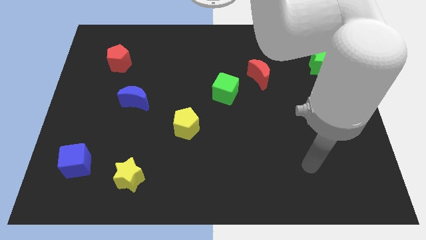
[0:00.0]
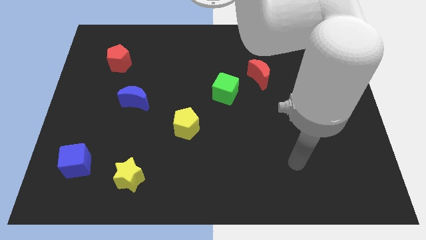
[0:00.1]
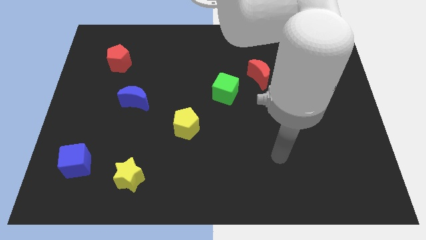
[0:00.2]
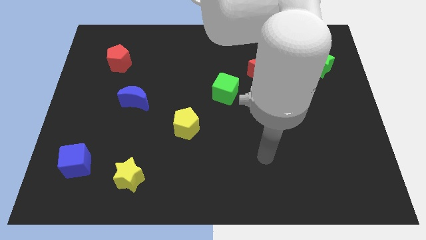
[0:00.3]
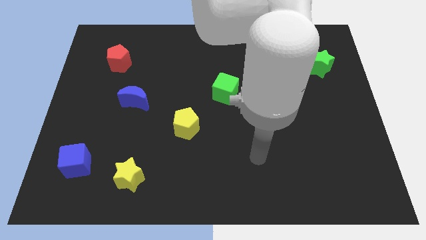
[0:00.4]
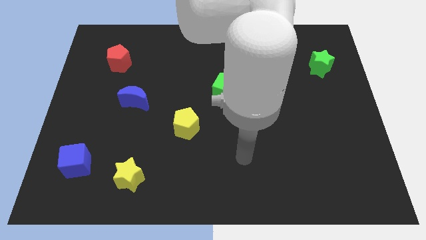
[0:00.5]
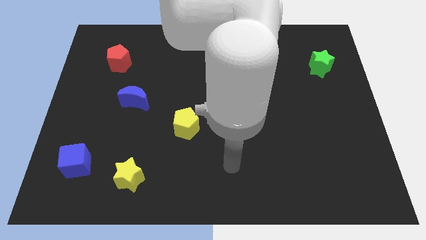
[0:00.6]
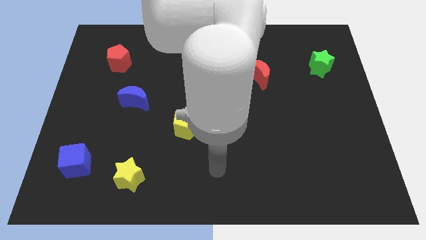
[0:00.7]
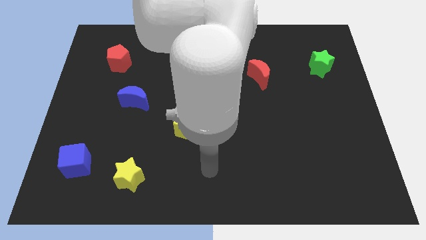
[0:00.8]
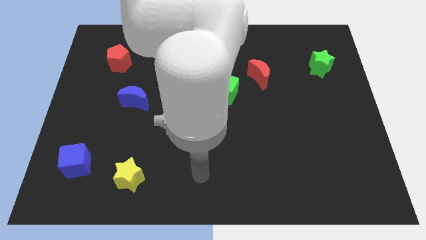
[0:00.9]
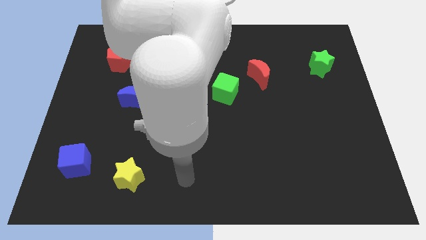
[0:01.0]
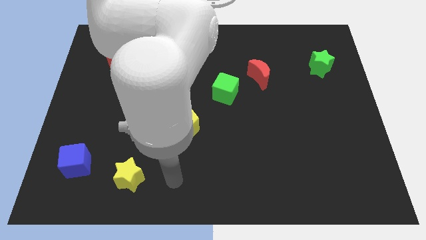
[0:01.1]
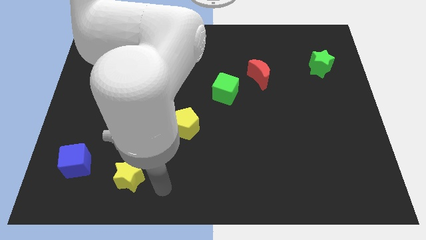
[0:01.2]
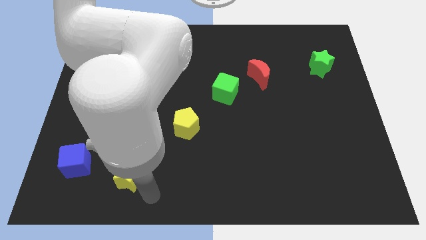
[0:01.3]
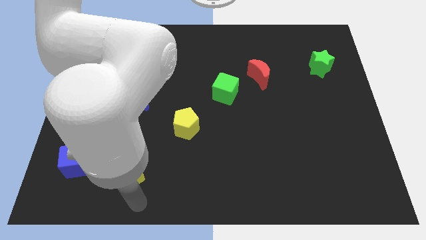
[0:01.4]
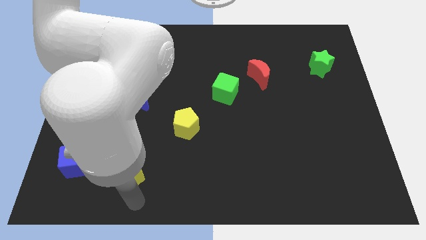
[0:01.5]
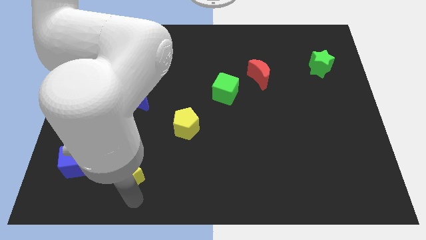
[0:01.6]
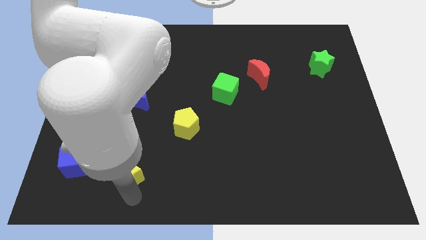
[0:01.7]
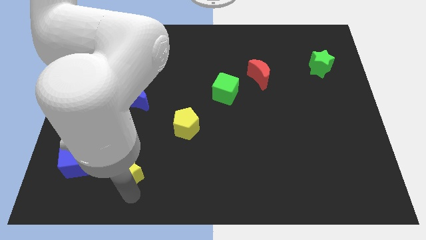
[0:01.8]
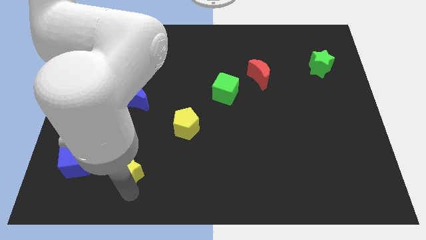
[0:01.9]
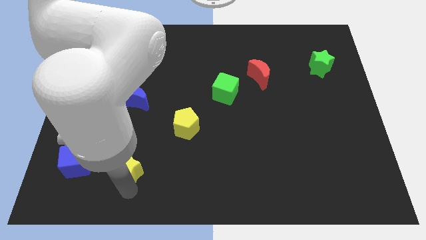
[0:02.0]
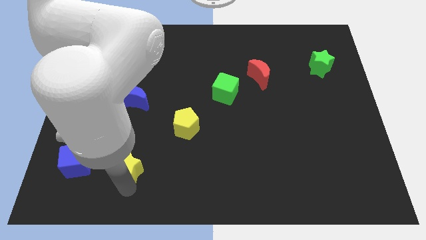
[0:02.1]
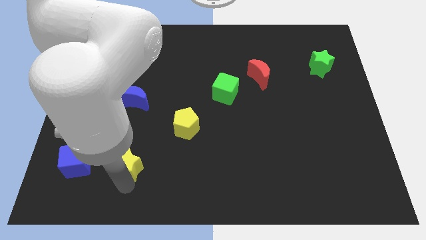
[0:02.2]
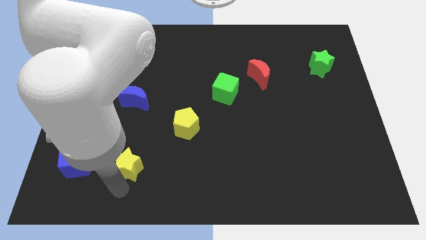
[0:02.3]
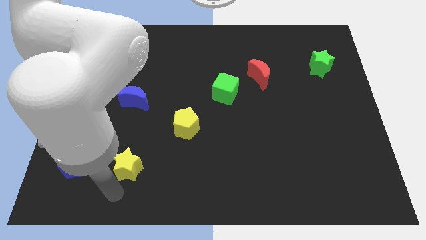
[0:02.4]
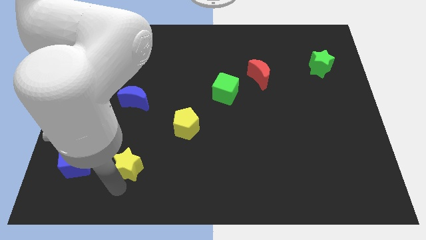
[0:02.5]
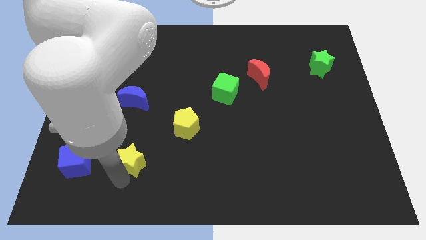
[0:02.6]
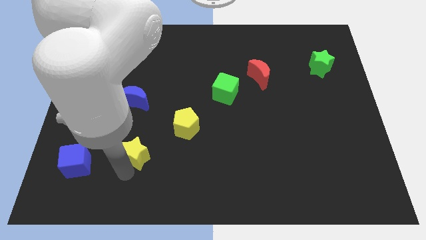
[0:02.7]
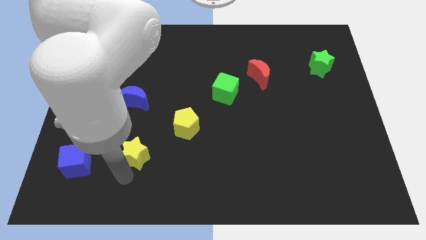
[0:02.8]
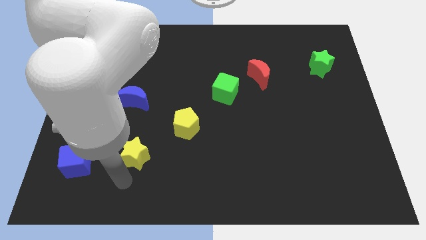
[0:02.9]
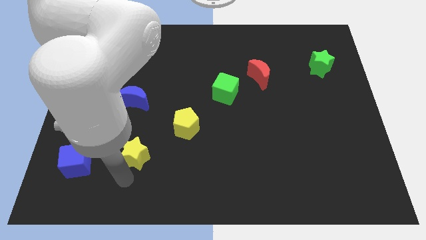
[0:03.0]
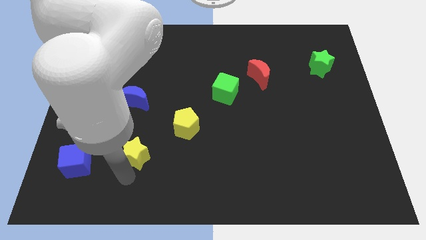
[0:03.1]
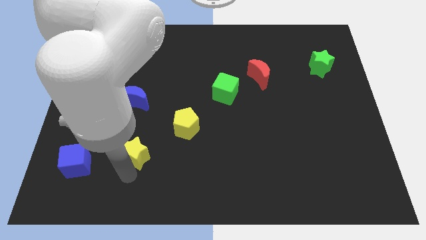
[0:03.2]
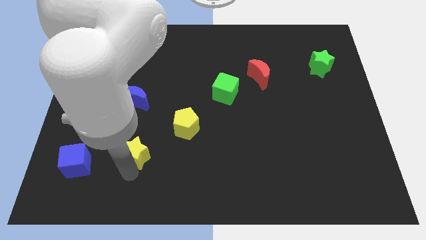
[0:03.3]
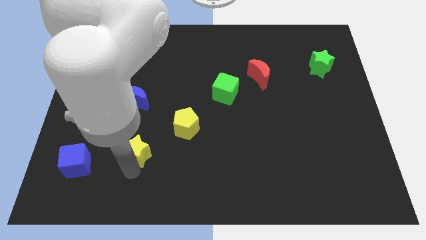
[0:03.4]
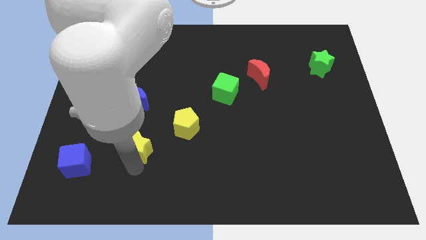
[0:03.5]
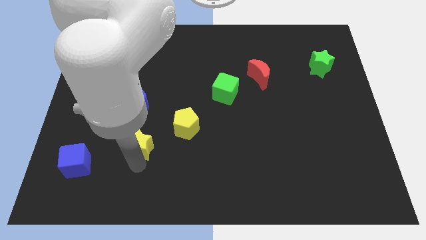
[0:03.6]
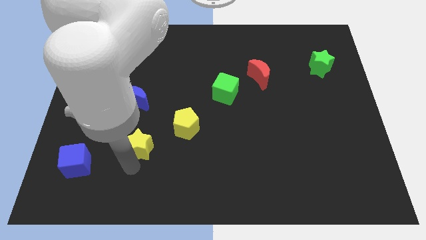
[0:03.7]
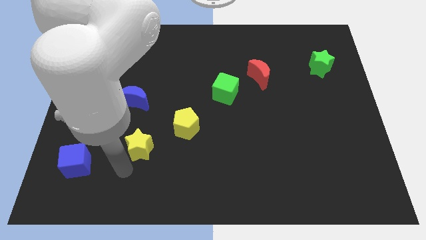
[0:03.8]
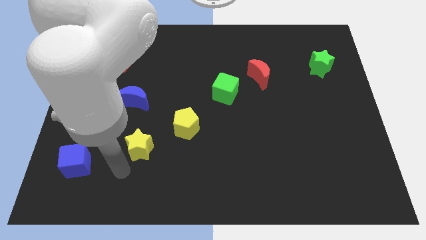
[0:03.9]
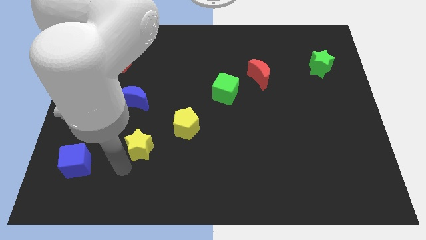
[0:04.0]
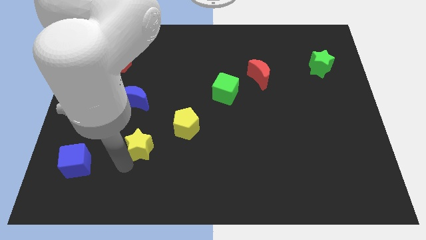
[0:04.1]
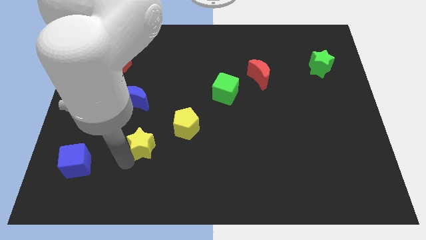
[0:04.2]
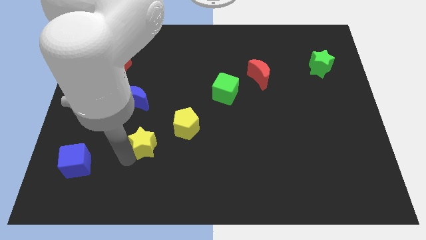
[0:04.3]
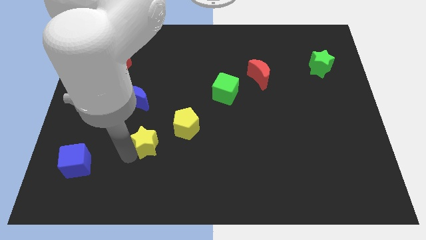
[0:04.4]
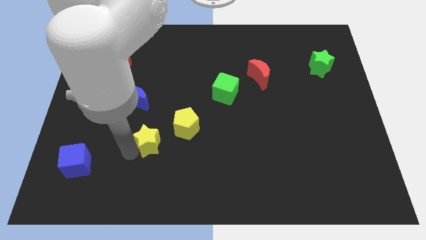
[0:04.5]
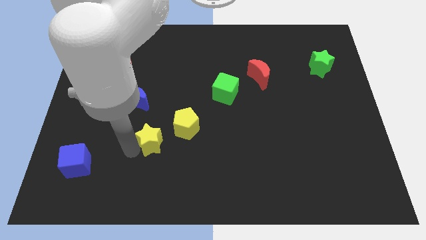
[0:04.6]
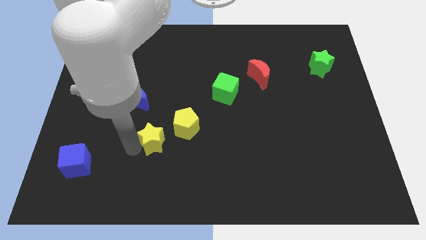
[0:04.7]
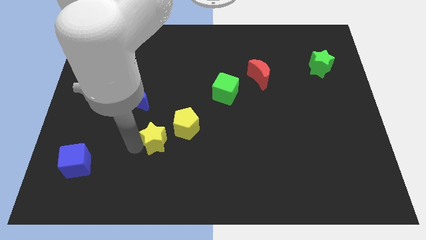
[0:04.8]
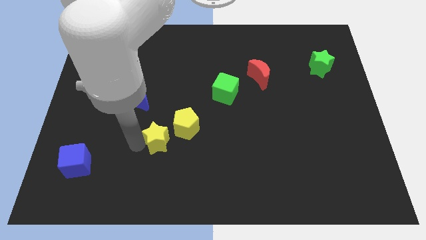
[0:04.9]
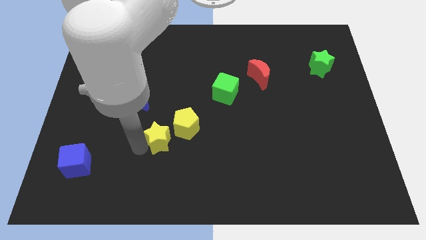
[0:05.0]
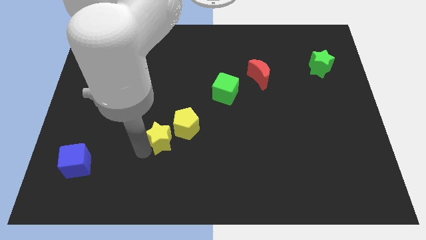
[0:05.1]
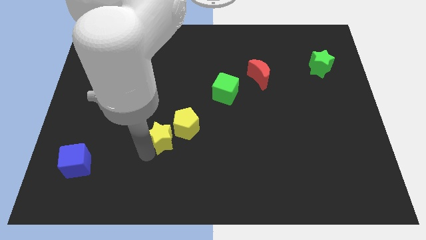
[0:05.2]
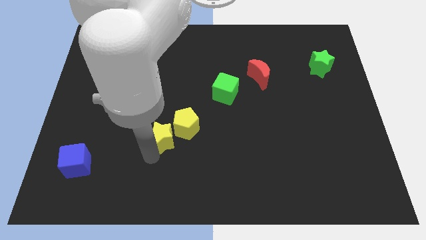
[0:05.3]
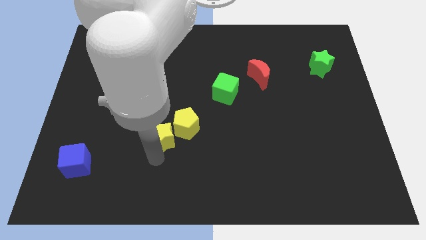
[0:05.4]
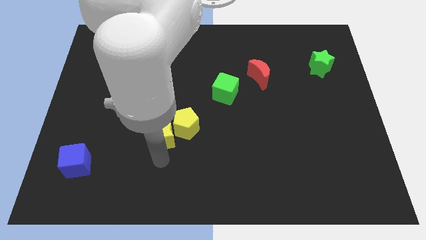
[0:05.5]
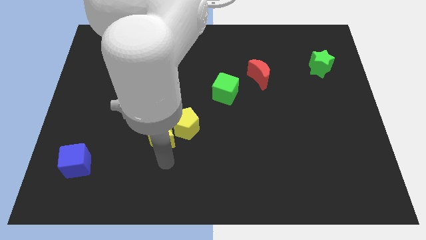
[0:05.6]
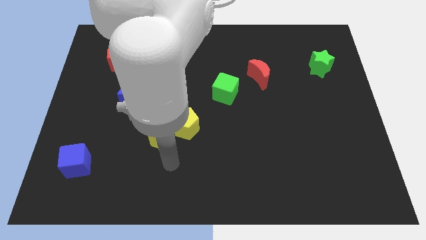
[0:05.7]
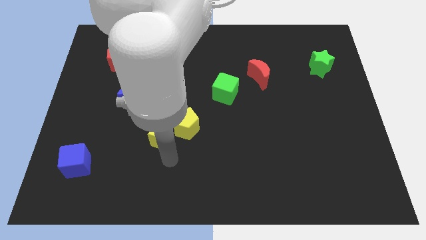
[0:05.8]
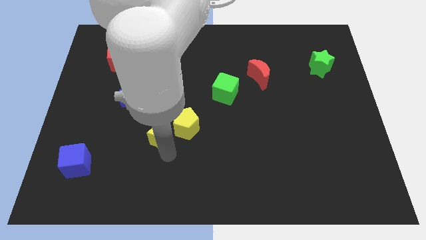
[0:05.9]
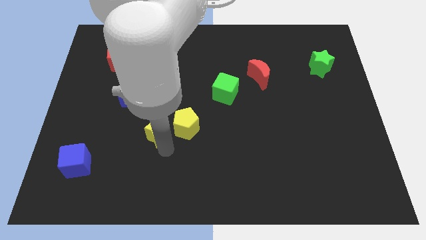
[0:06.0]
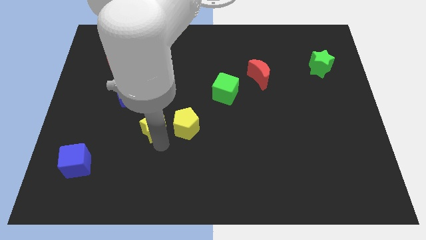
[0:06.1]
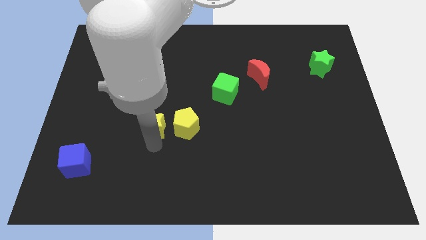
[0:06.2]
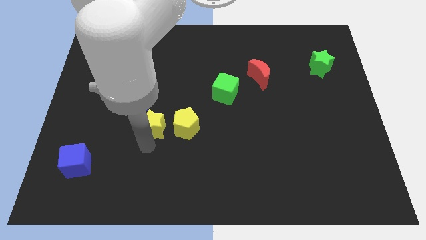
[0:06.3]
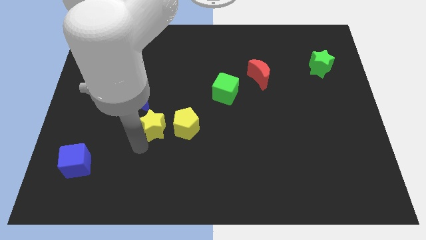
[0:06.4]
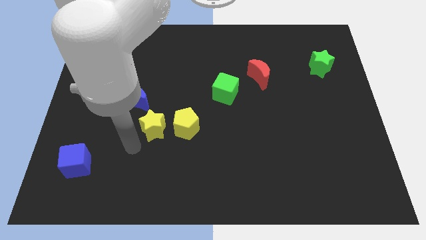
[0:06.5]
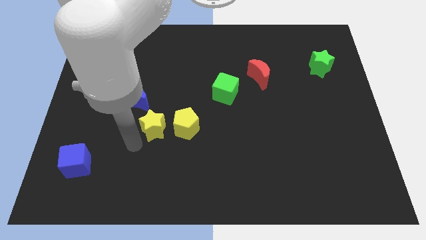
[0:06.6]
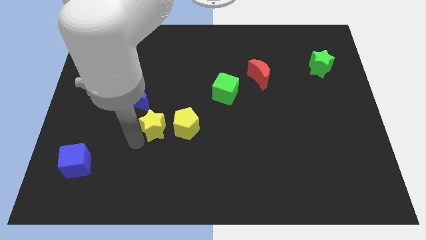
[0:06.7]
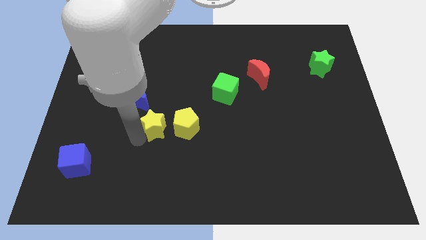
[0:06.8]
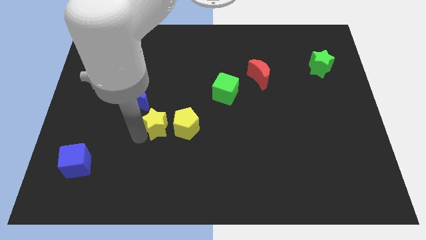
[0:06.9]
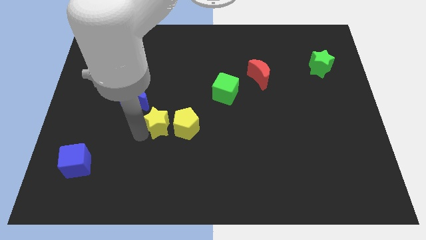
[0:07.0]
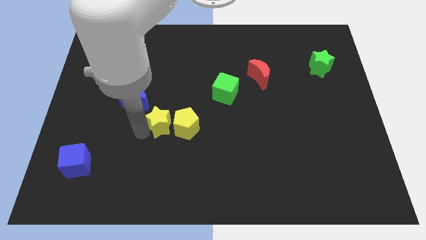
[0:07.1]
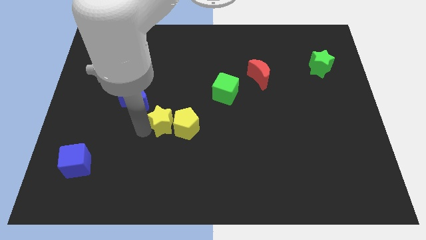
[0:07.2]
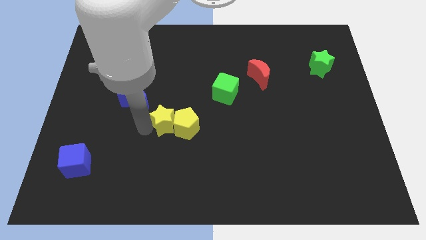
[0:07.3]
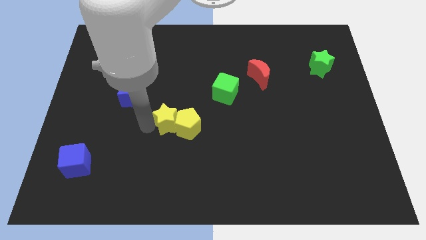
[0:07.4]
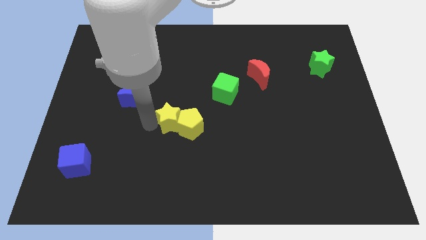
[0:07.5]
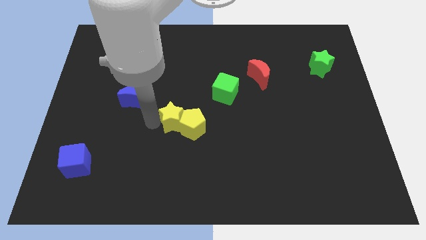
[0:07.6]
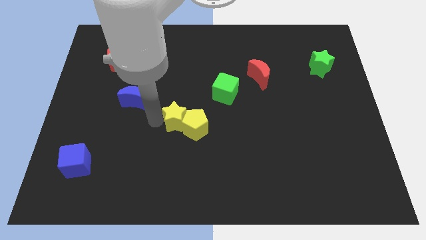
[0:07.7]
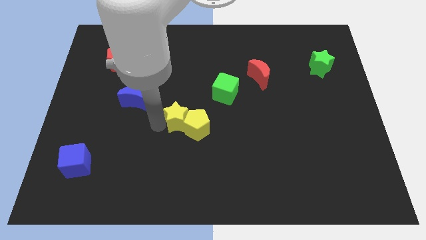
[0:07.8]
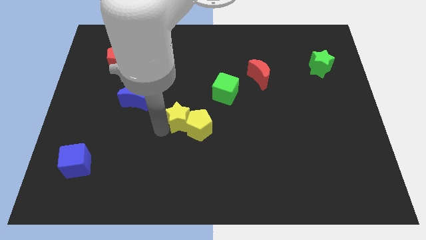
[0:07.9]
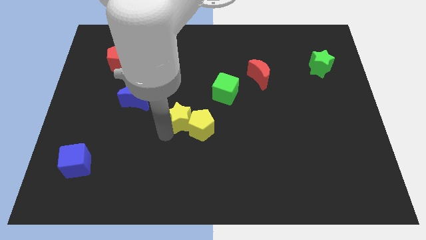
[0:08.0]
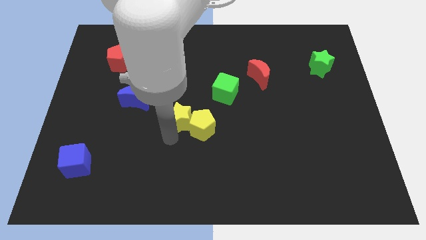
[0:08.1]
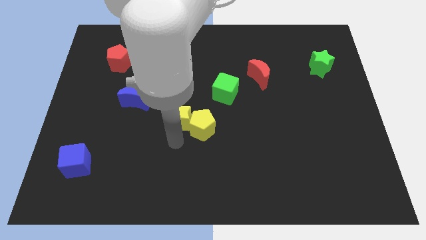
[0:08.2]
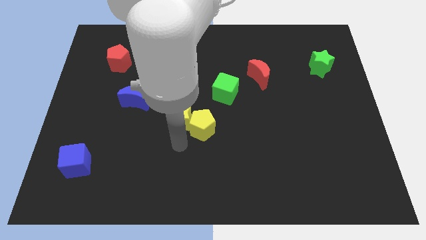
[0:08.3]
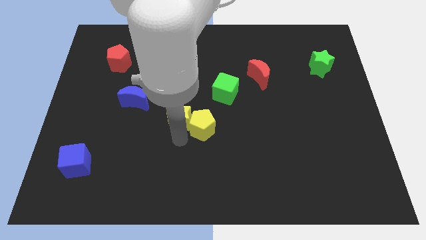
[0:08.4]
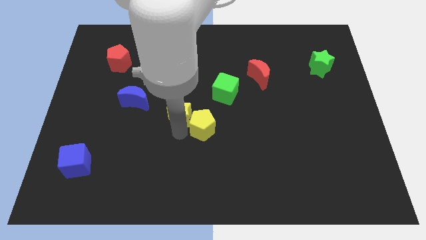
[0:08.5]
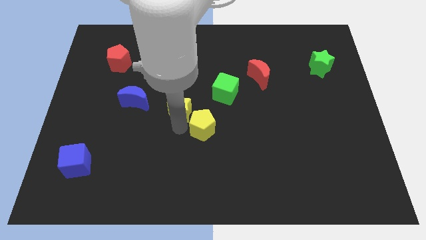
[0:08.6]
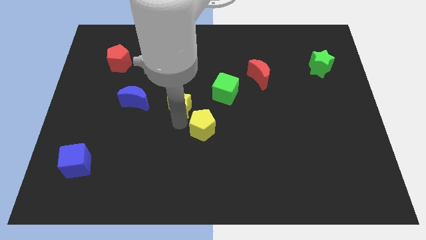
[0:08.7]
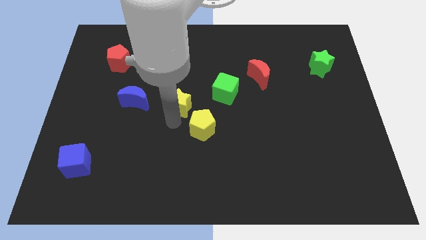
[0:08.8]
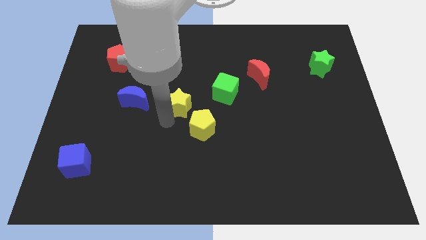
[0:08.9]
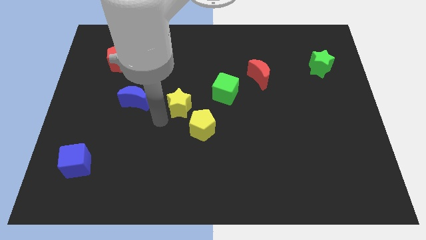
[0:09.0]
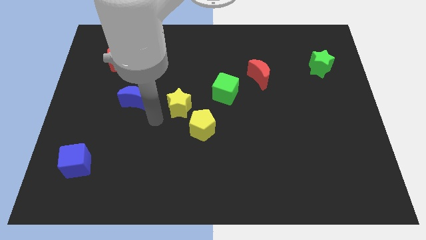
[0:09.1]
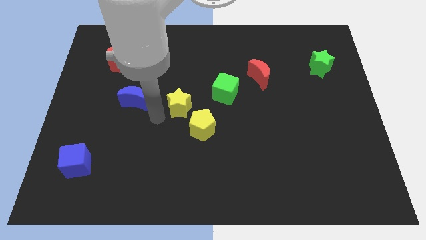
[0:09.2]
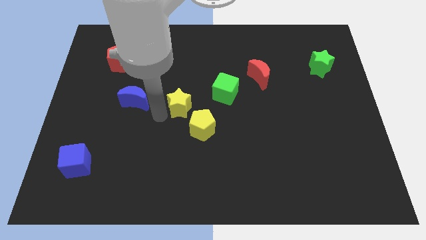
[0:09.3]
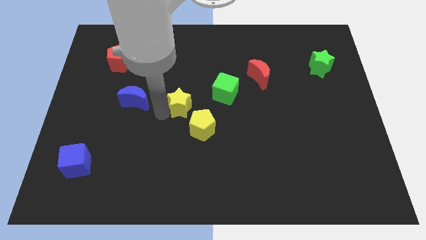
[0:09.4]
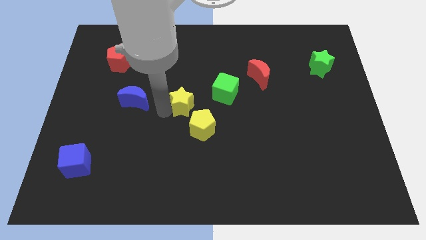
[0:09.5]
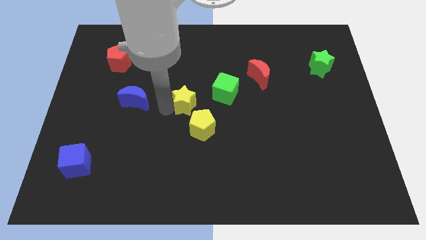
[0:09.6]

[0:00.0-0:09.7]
put the yellow star to the top of the yellow pentagon
